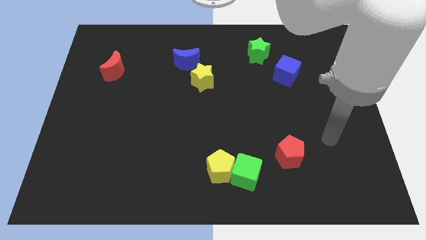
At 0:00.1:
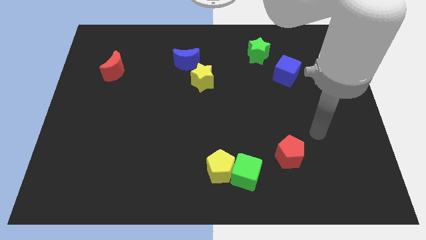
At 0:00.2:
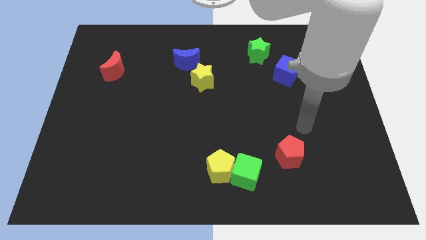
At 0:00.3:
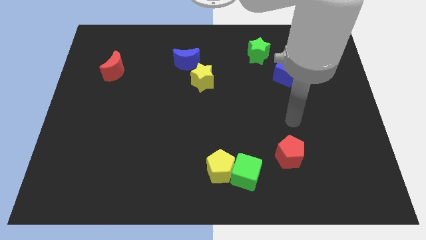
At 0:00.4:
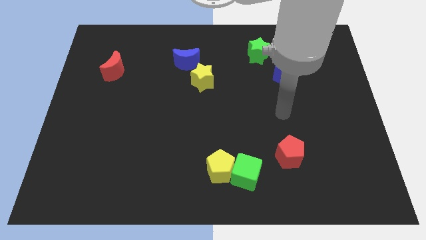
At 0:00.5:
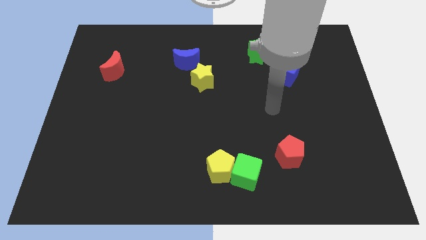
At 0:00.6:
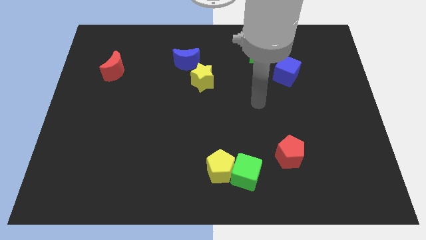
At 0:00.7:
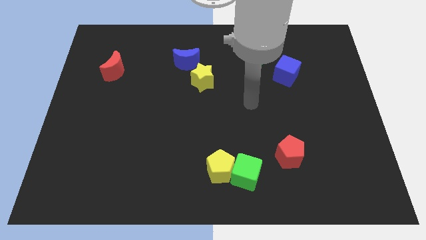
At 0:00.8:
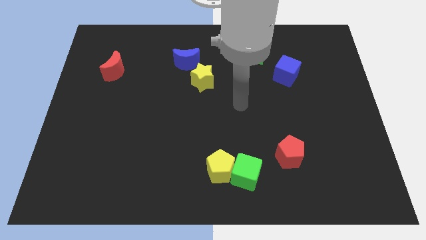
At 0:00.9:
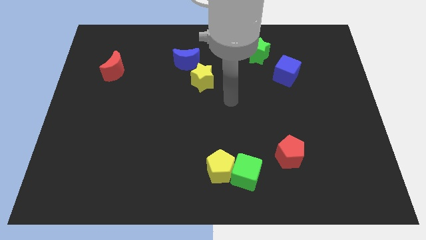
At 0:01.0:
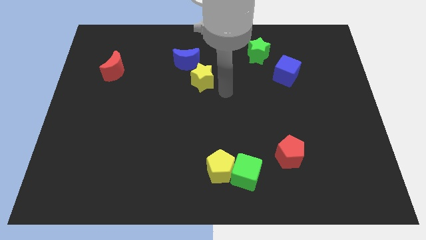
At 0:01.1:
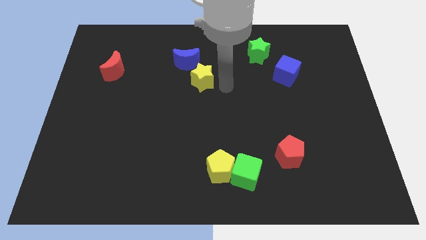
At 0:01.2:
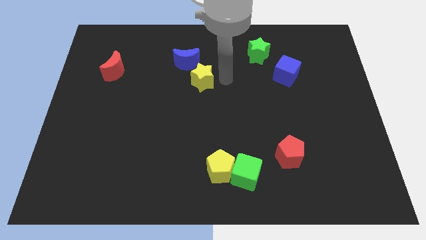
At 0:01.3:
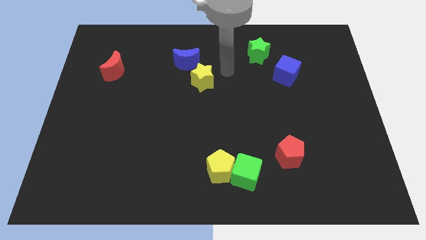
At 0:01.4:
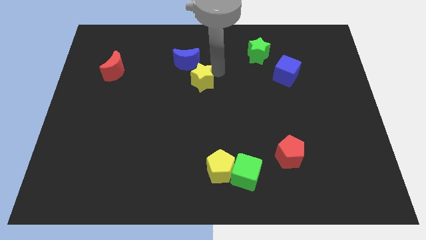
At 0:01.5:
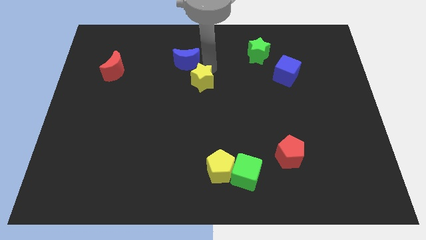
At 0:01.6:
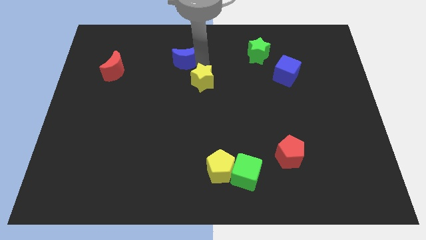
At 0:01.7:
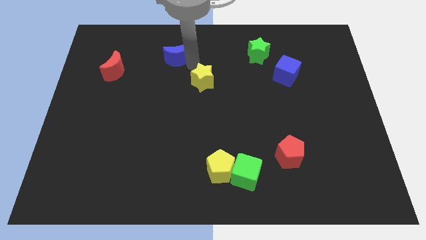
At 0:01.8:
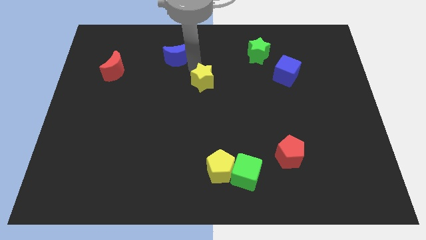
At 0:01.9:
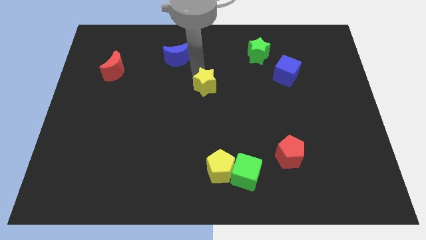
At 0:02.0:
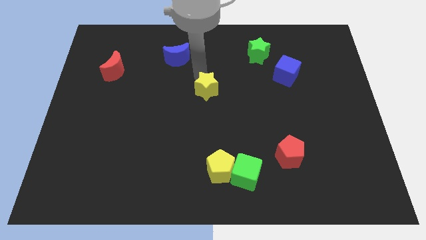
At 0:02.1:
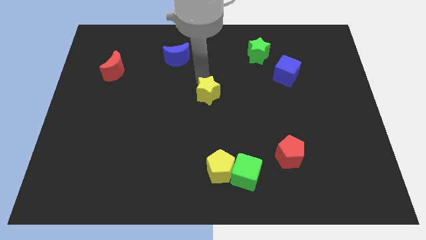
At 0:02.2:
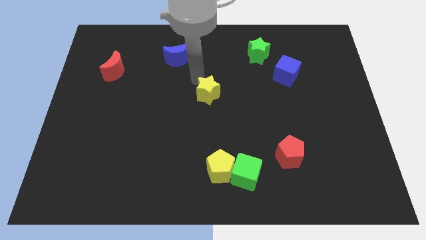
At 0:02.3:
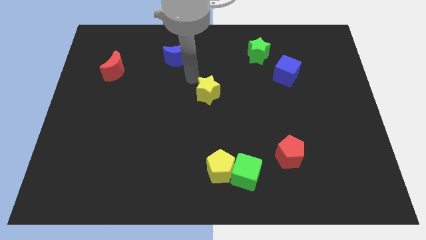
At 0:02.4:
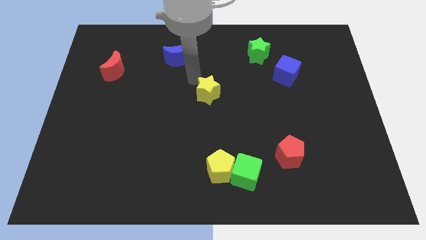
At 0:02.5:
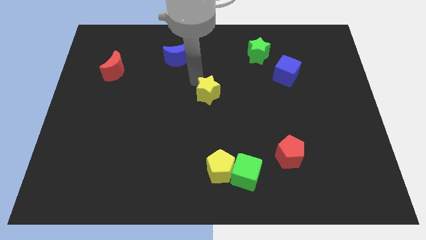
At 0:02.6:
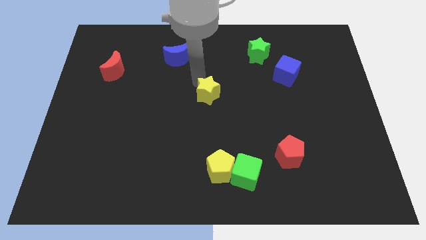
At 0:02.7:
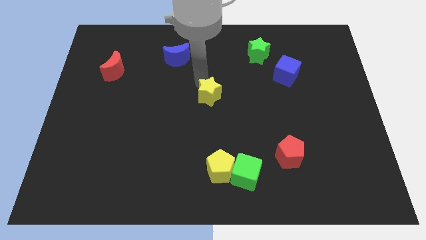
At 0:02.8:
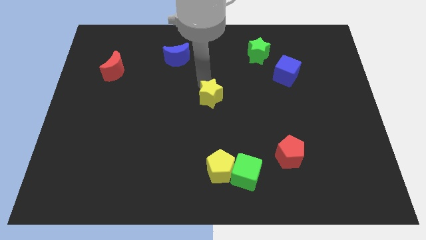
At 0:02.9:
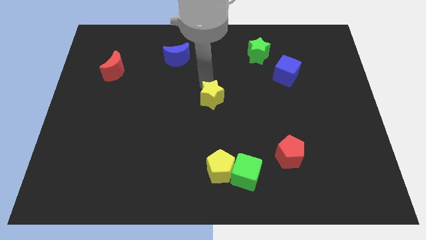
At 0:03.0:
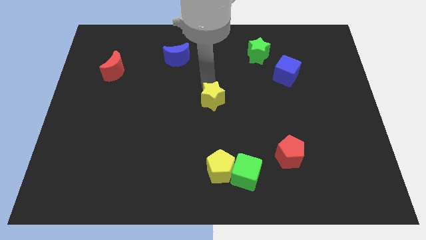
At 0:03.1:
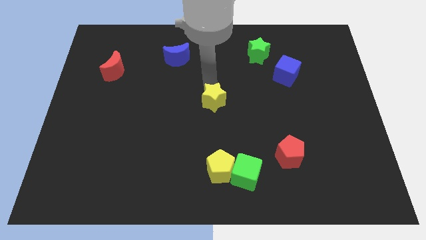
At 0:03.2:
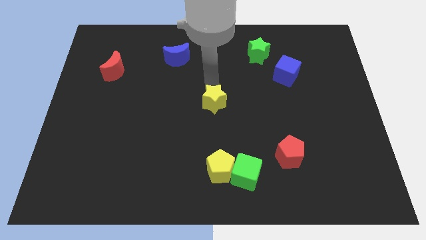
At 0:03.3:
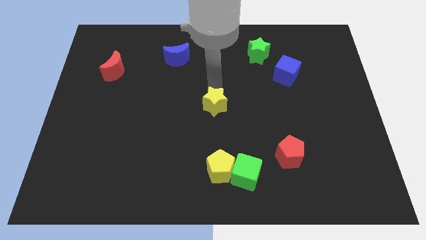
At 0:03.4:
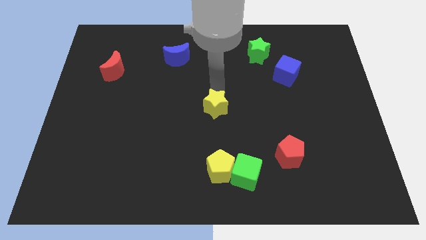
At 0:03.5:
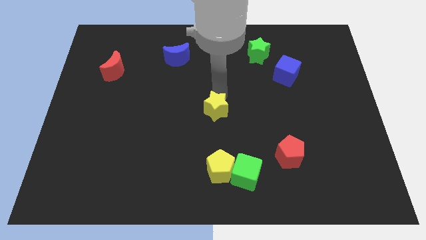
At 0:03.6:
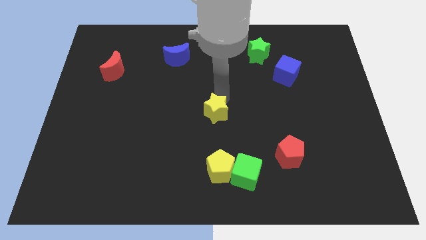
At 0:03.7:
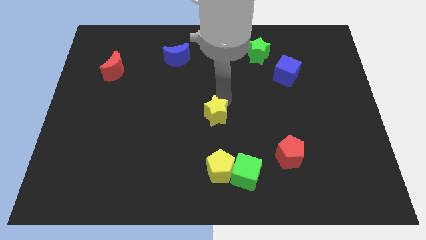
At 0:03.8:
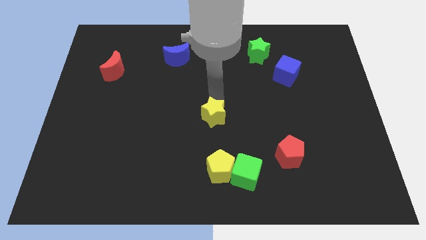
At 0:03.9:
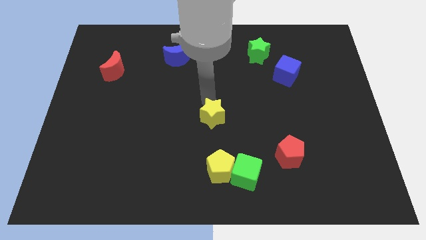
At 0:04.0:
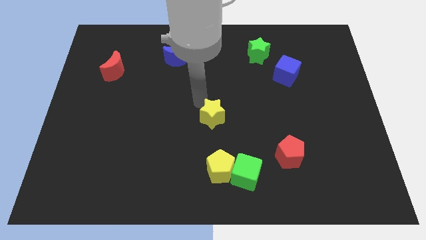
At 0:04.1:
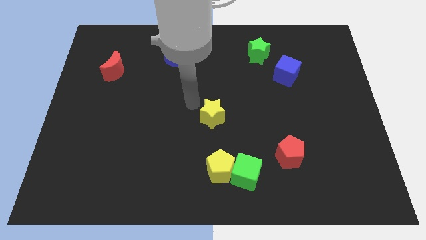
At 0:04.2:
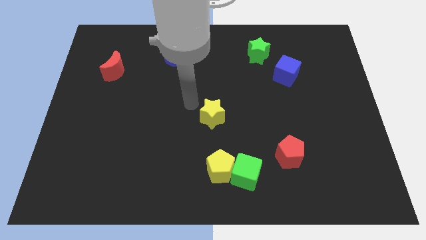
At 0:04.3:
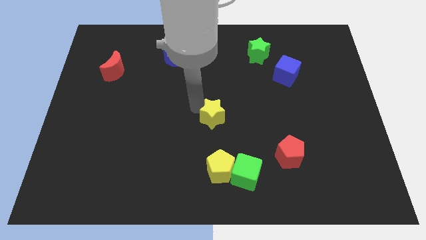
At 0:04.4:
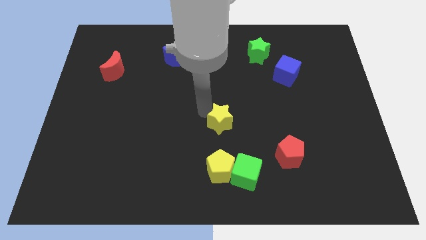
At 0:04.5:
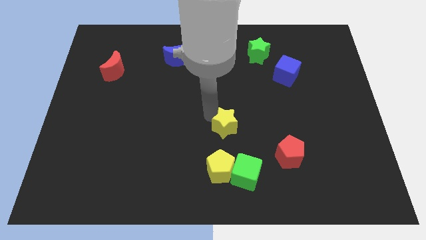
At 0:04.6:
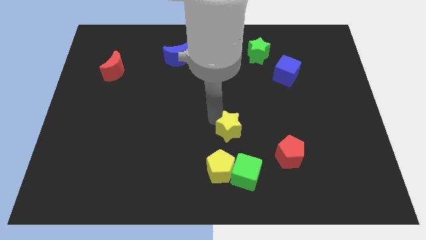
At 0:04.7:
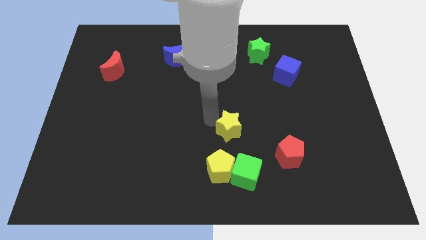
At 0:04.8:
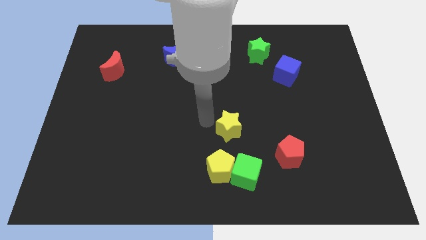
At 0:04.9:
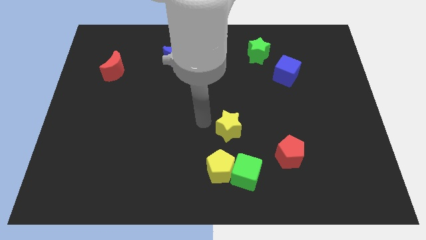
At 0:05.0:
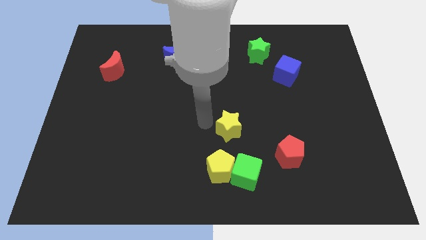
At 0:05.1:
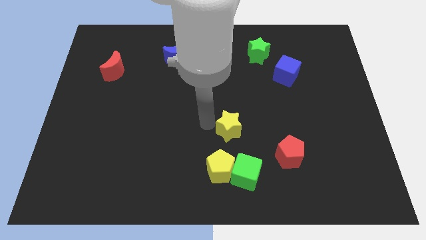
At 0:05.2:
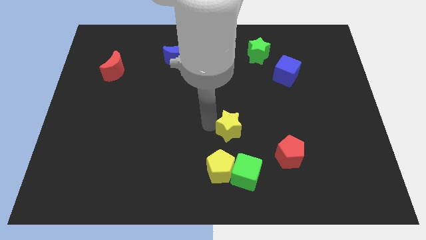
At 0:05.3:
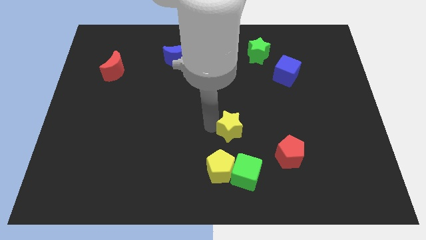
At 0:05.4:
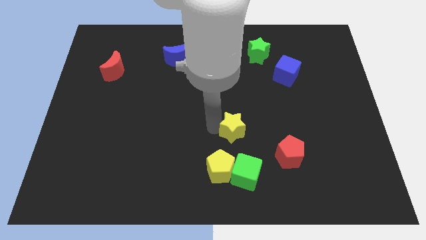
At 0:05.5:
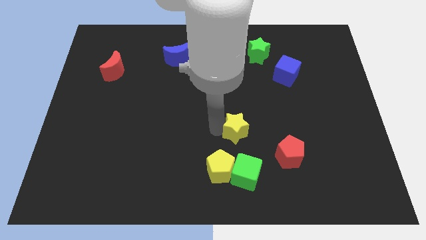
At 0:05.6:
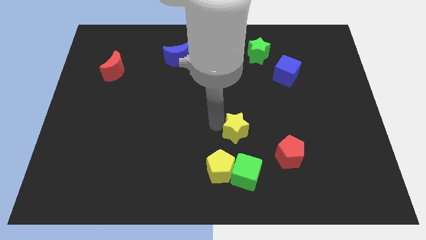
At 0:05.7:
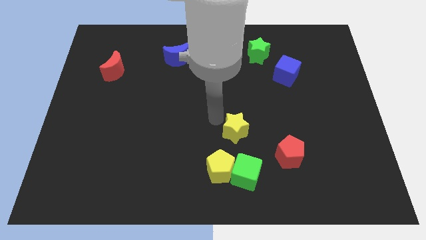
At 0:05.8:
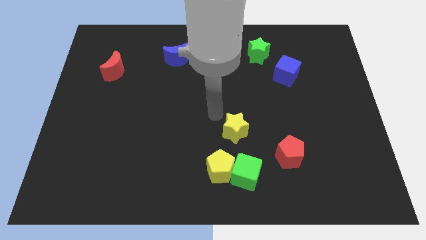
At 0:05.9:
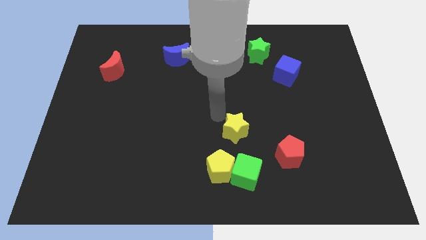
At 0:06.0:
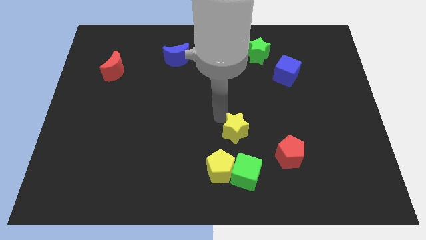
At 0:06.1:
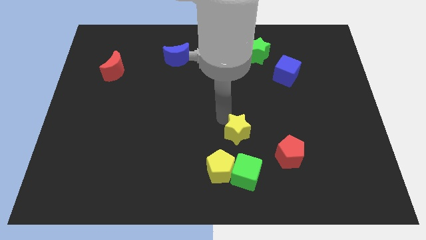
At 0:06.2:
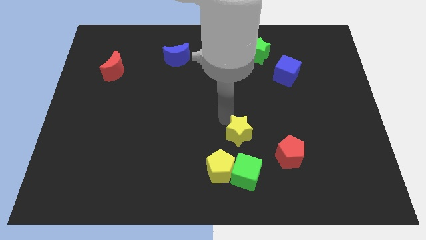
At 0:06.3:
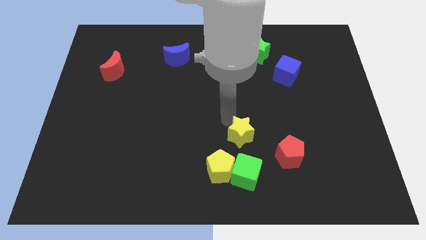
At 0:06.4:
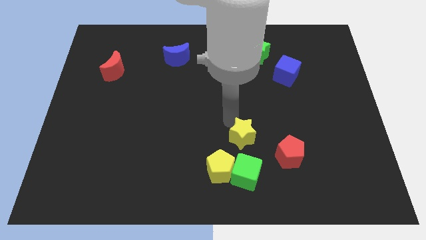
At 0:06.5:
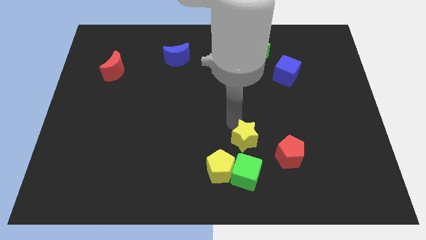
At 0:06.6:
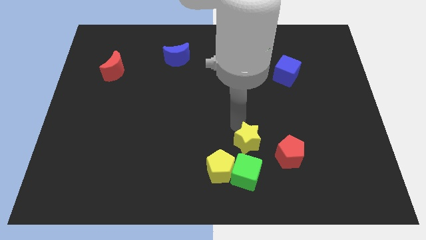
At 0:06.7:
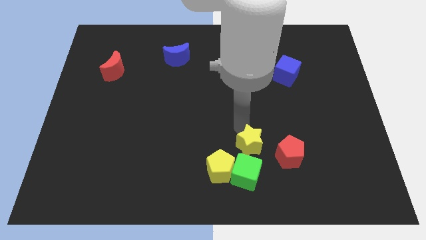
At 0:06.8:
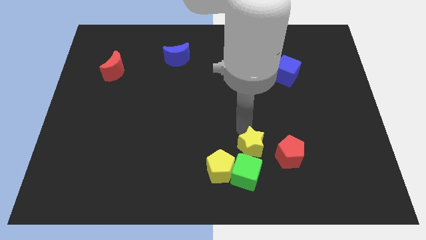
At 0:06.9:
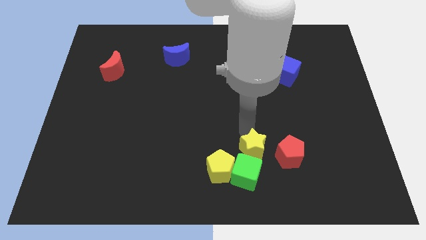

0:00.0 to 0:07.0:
put the yellow star just right of the yellow pentagon

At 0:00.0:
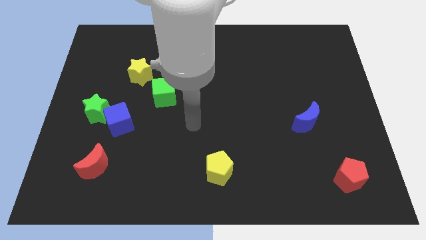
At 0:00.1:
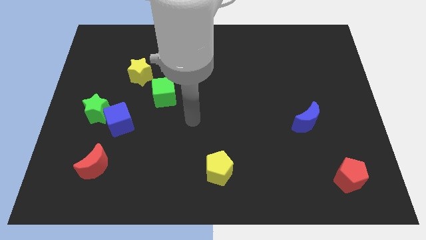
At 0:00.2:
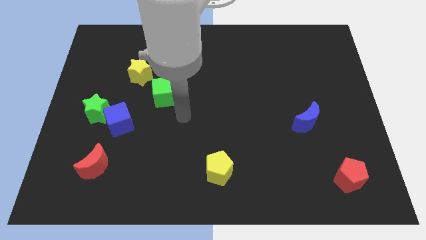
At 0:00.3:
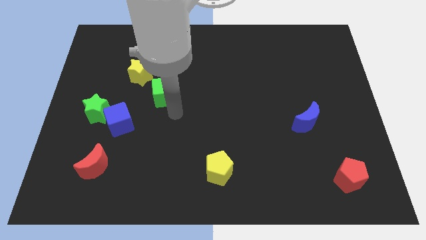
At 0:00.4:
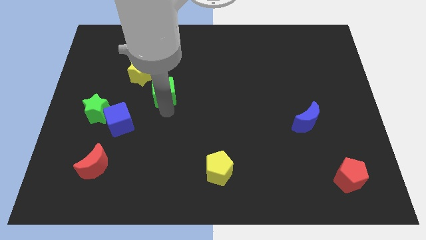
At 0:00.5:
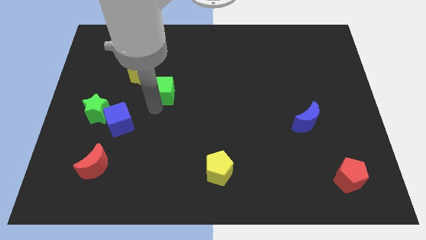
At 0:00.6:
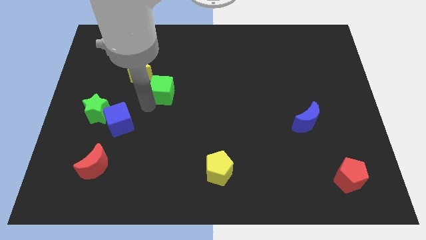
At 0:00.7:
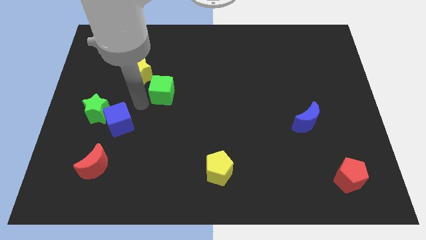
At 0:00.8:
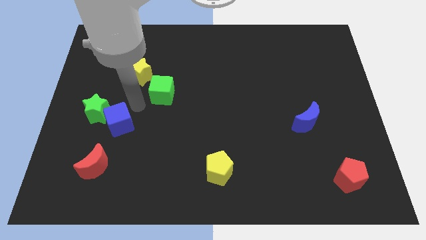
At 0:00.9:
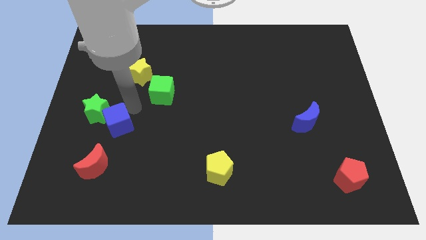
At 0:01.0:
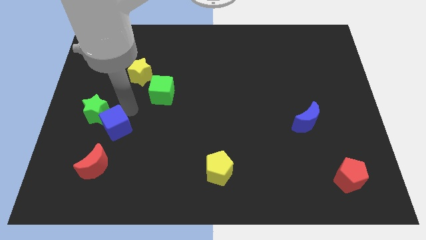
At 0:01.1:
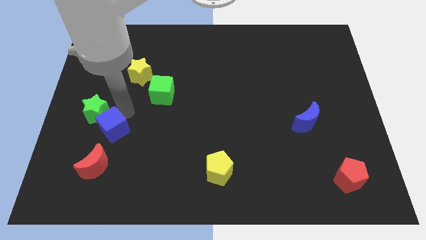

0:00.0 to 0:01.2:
slide the blue cube to the bottom of the green star
